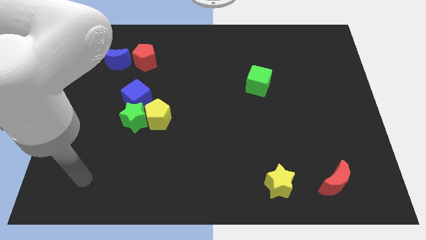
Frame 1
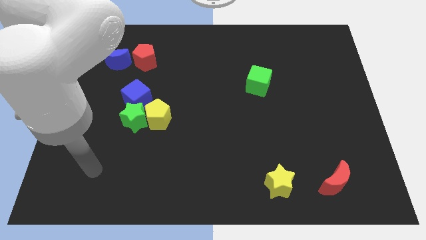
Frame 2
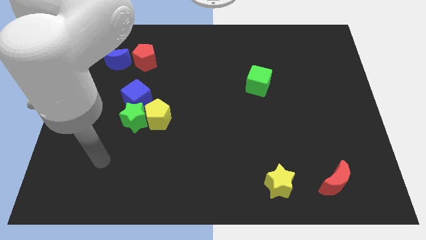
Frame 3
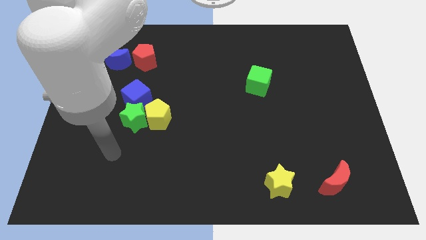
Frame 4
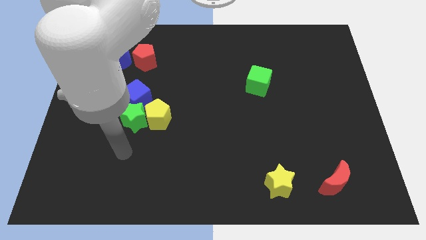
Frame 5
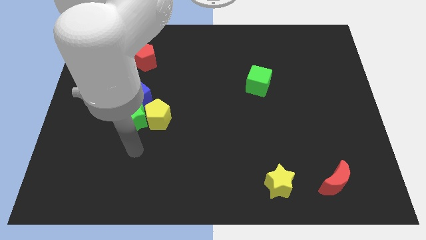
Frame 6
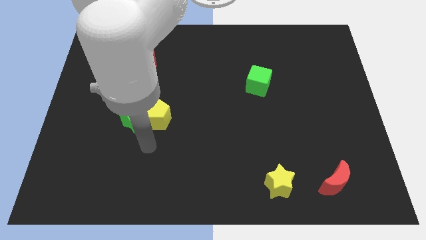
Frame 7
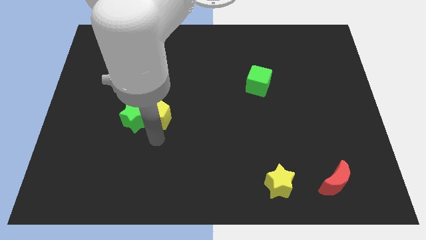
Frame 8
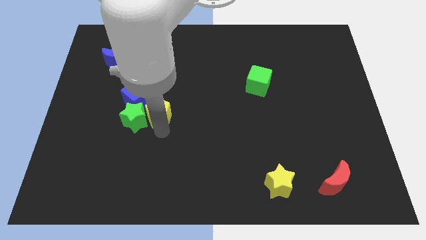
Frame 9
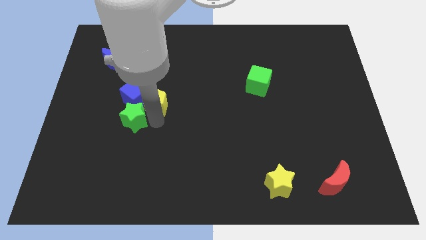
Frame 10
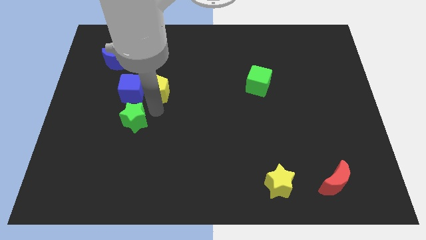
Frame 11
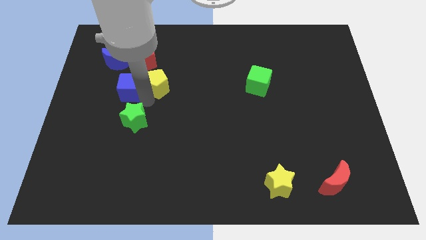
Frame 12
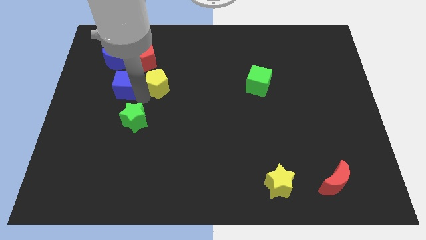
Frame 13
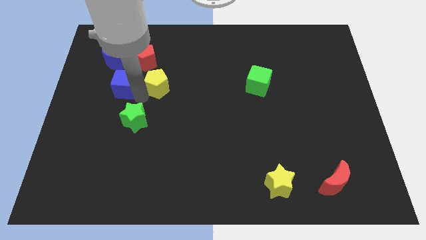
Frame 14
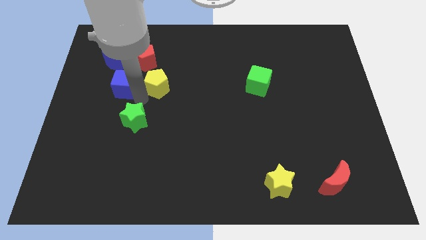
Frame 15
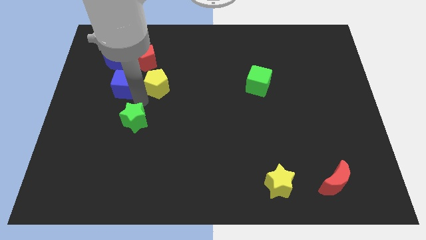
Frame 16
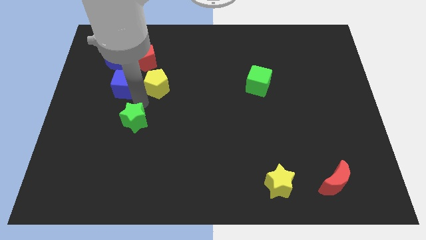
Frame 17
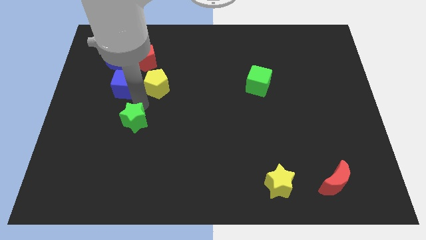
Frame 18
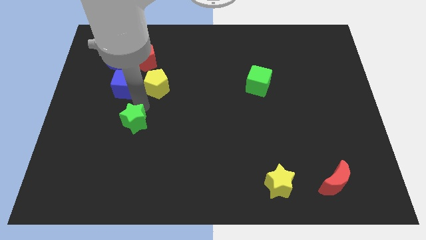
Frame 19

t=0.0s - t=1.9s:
pull the green star apart from the yellow pentagon and blue cube

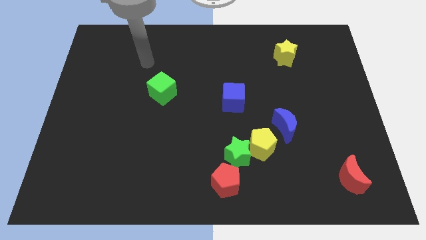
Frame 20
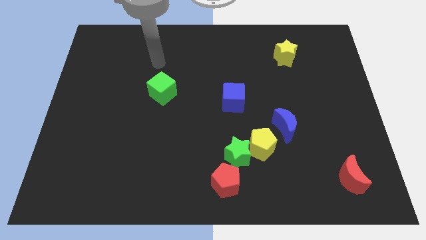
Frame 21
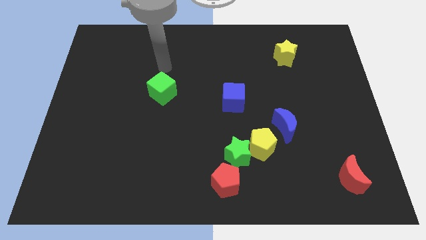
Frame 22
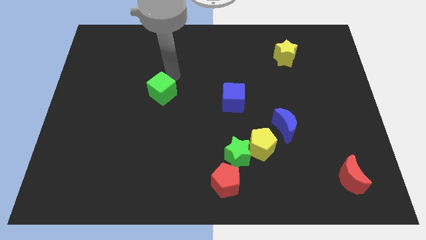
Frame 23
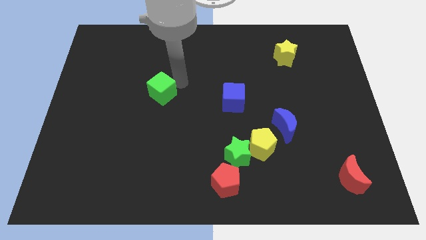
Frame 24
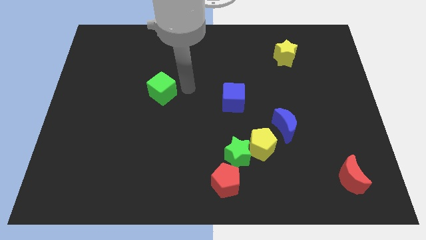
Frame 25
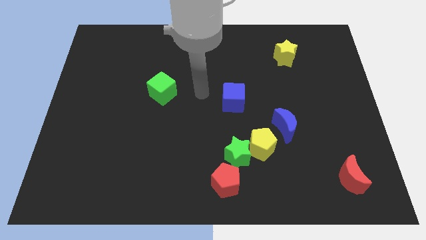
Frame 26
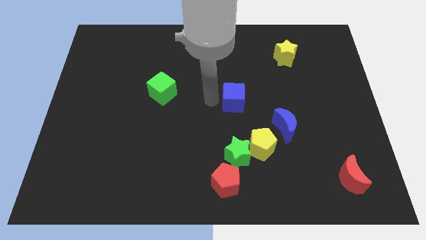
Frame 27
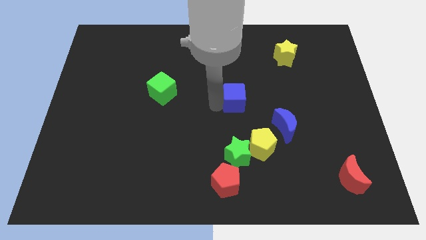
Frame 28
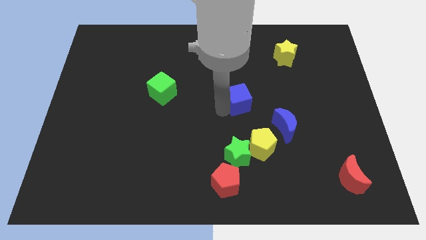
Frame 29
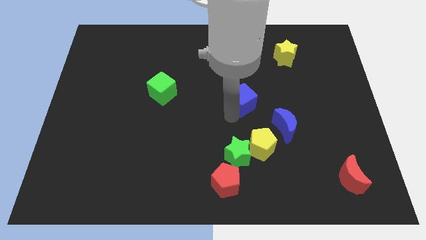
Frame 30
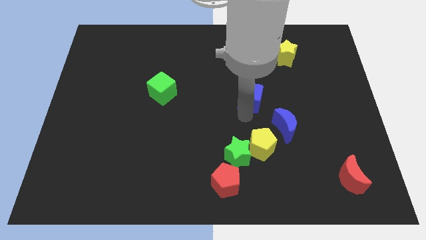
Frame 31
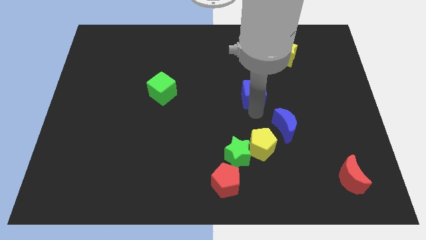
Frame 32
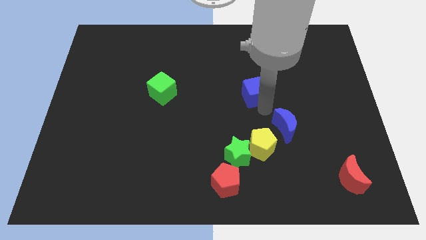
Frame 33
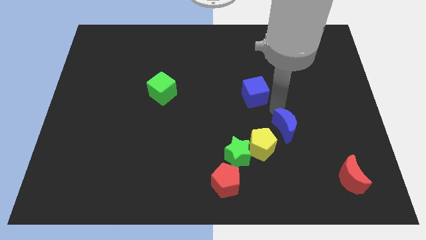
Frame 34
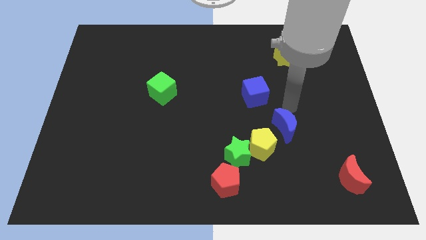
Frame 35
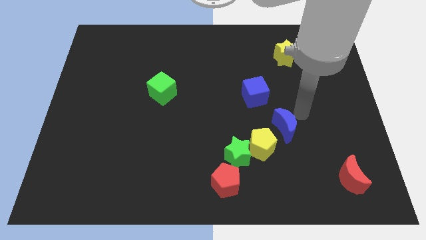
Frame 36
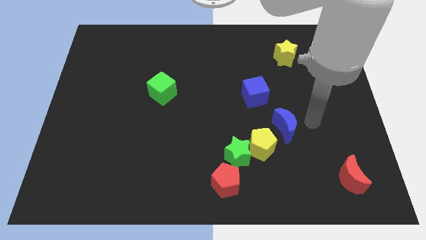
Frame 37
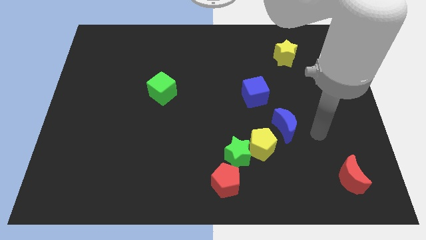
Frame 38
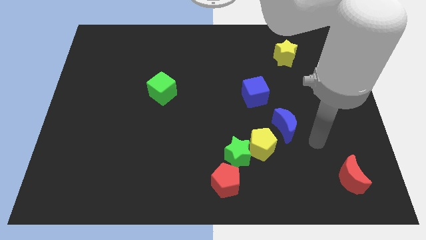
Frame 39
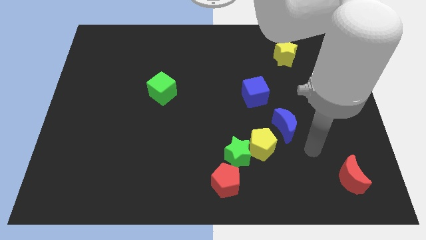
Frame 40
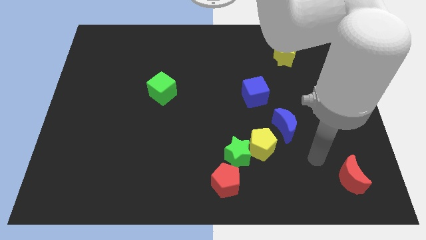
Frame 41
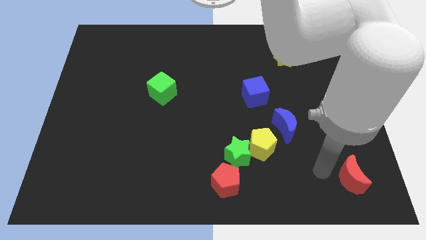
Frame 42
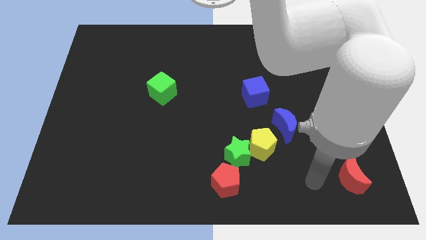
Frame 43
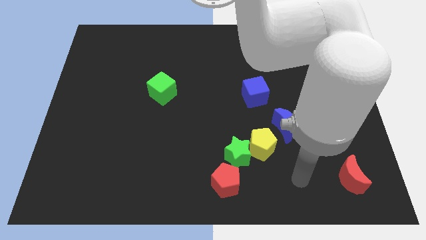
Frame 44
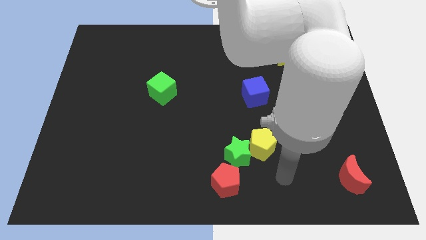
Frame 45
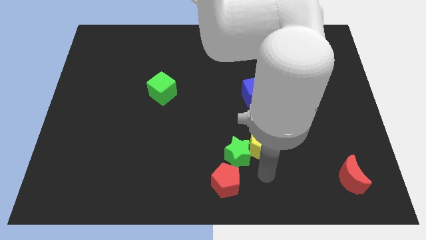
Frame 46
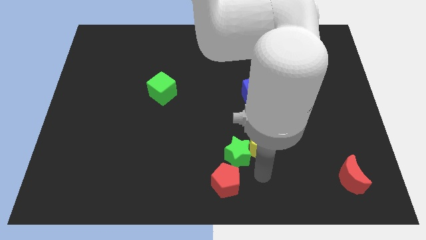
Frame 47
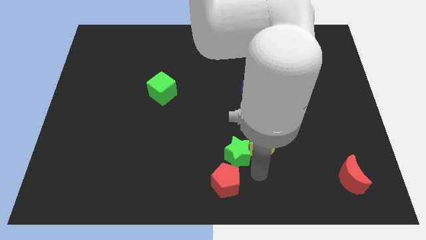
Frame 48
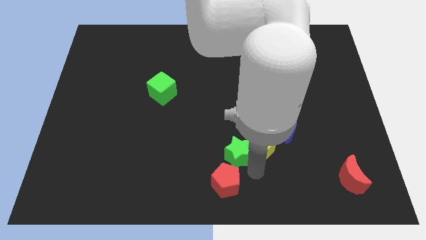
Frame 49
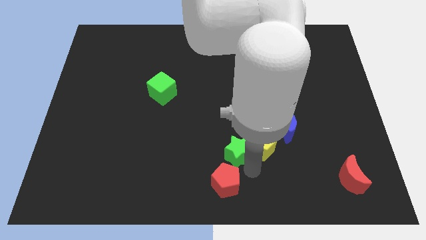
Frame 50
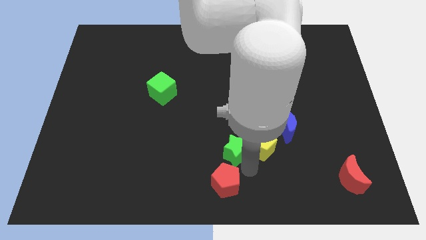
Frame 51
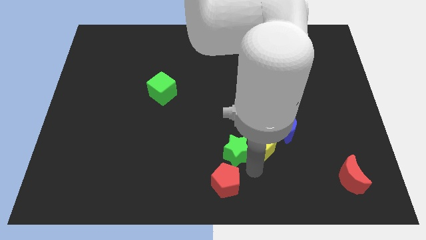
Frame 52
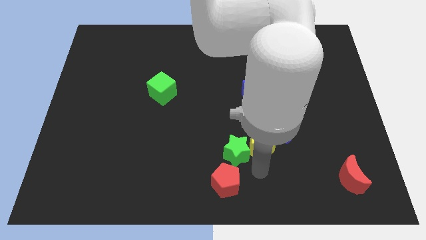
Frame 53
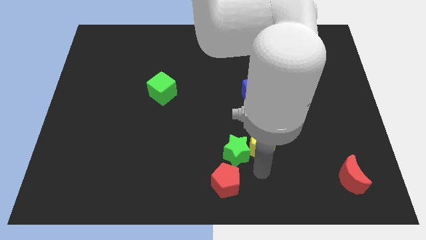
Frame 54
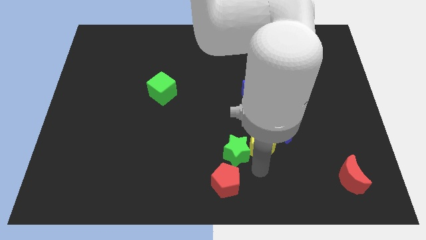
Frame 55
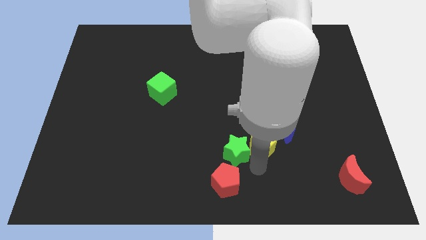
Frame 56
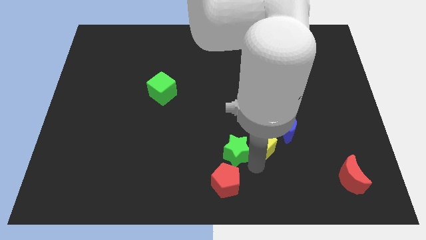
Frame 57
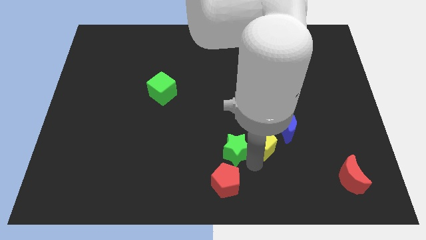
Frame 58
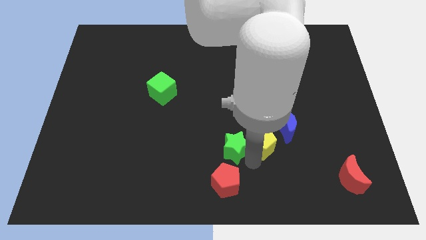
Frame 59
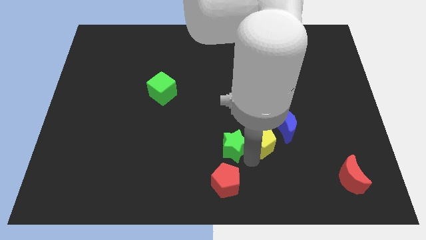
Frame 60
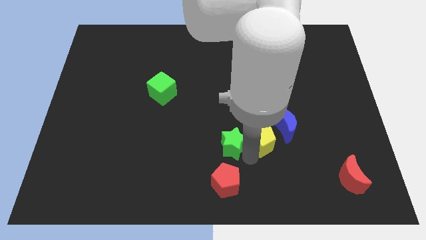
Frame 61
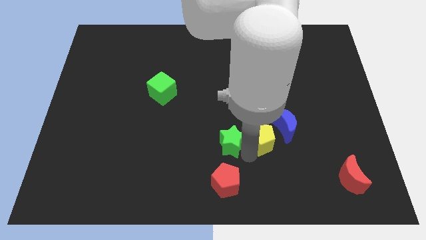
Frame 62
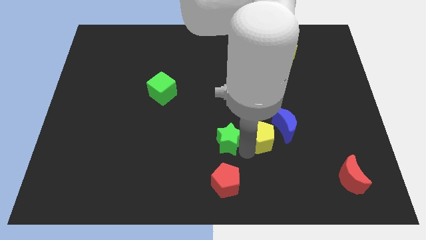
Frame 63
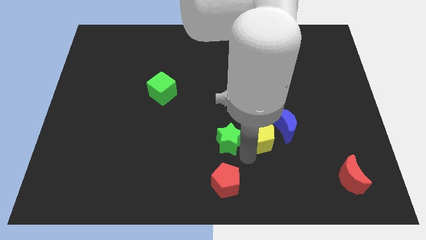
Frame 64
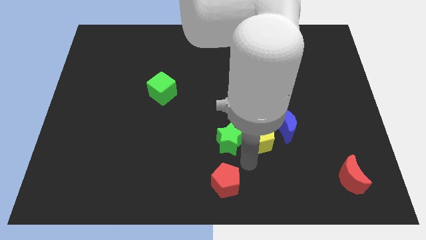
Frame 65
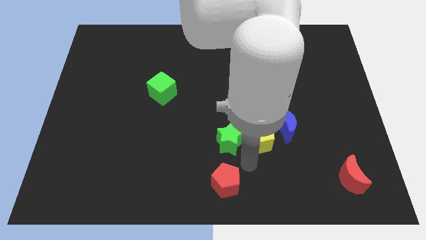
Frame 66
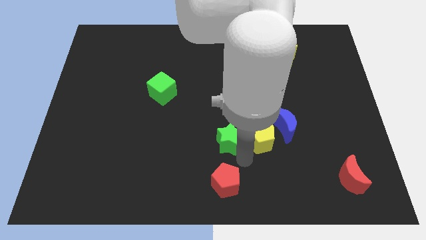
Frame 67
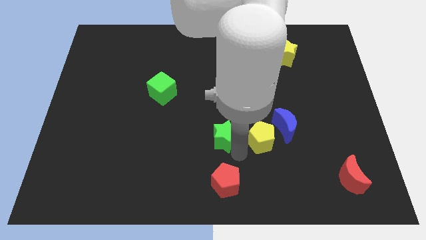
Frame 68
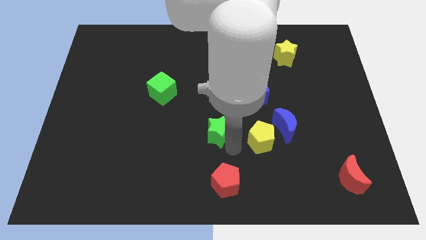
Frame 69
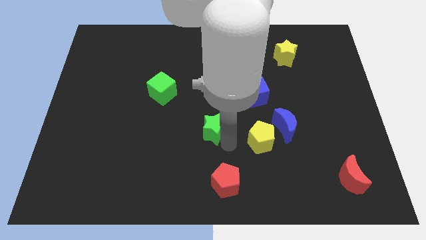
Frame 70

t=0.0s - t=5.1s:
move the green star away from the yellow pentagon and red pentagon

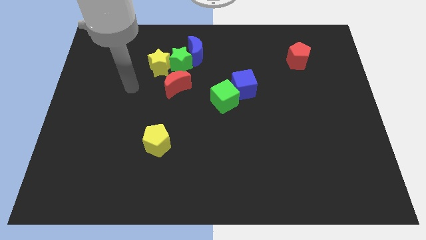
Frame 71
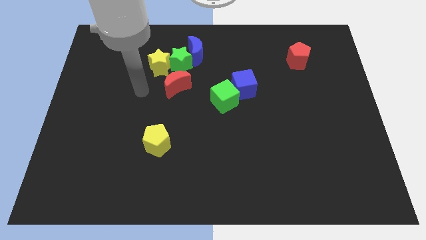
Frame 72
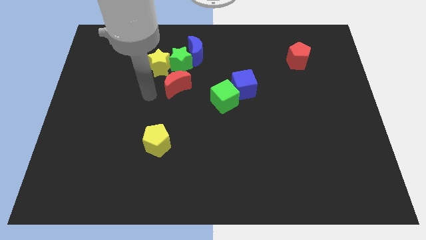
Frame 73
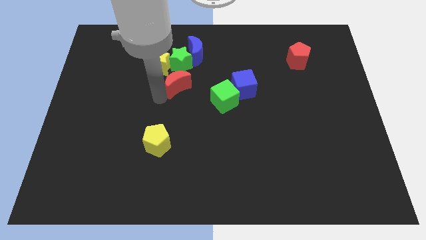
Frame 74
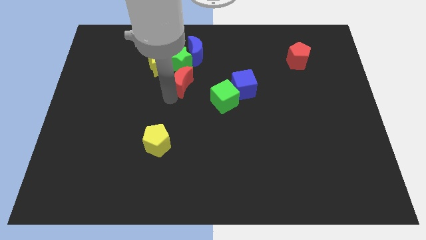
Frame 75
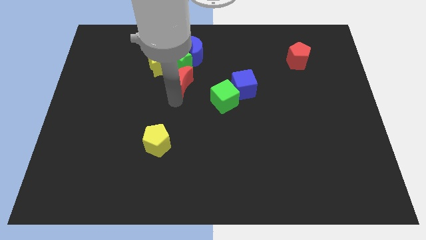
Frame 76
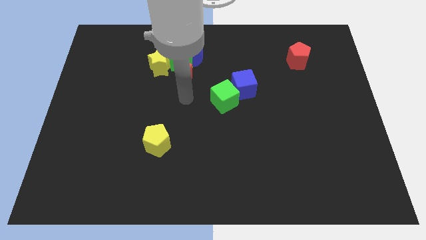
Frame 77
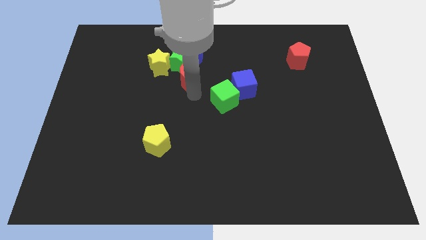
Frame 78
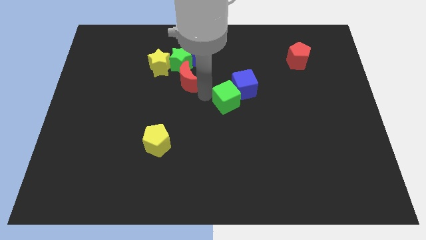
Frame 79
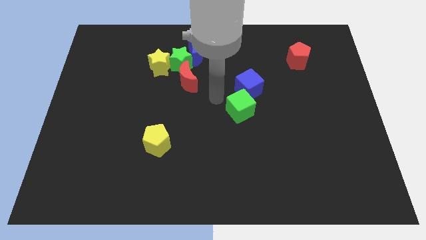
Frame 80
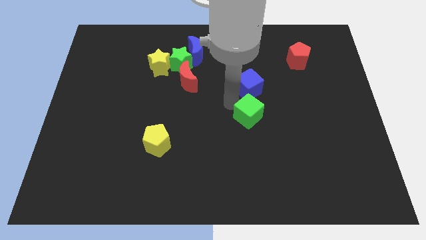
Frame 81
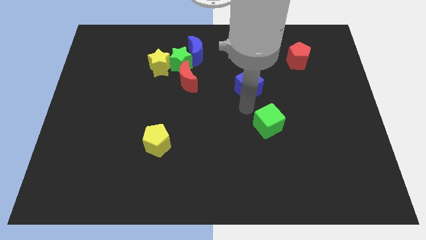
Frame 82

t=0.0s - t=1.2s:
separate the blue cube from the green cube

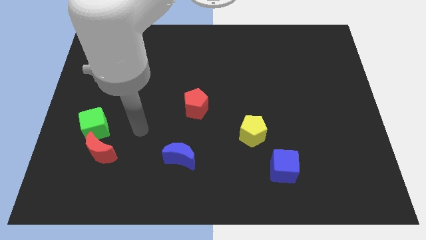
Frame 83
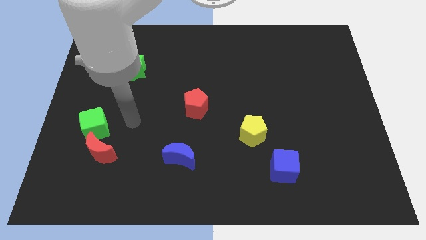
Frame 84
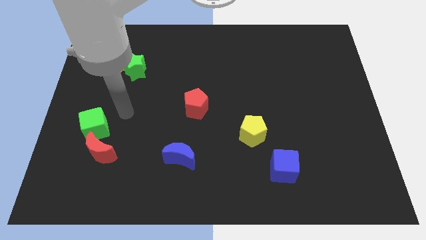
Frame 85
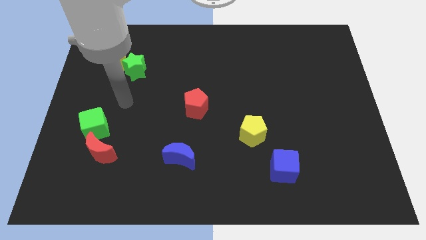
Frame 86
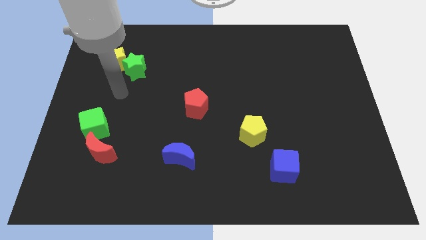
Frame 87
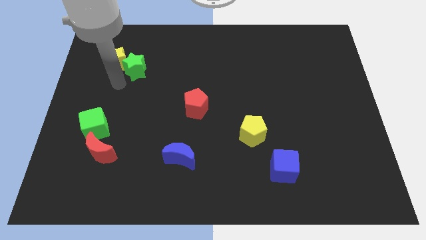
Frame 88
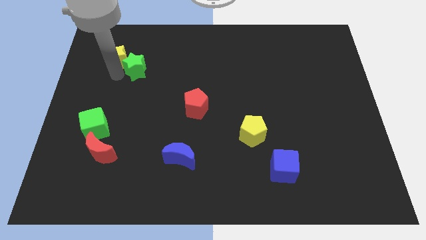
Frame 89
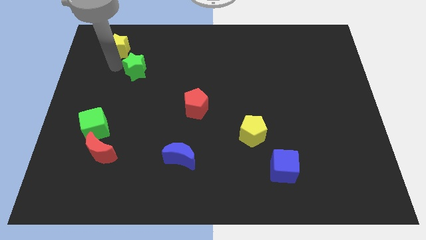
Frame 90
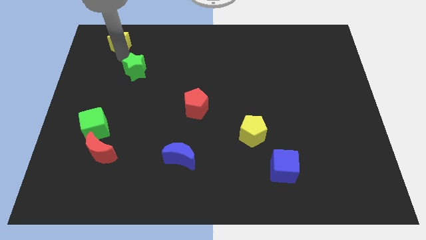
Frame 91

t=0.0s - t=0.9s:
separate the green star from the yellow star

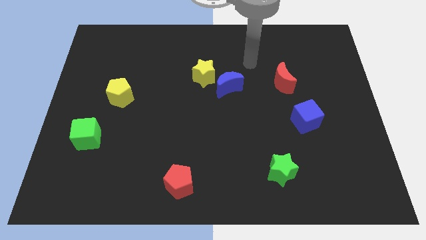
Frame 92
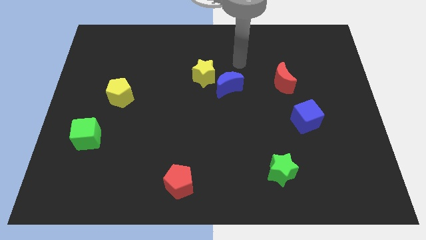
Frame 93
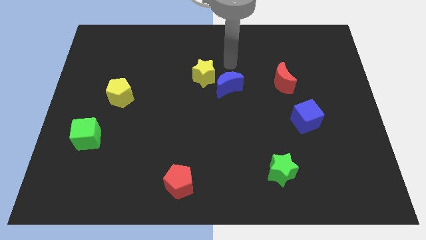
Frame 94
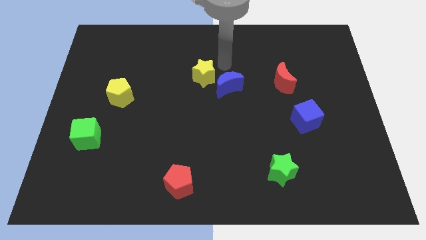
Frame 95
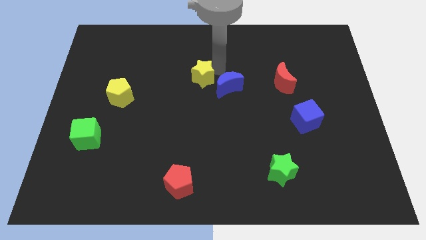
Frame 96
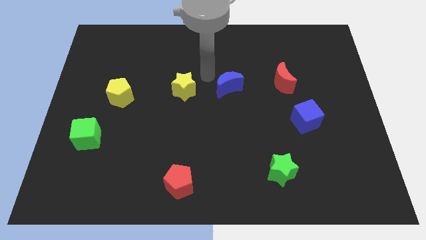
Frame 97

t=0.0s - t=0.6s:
move the blue moon away from the yellow star
